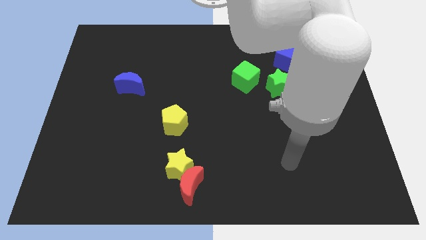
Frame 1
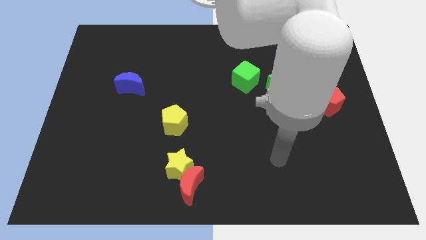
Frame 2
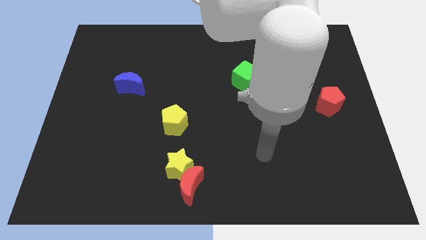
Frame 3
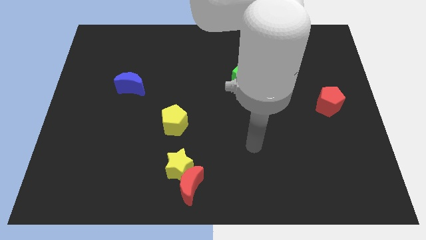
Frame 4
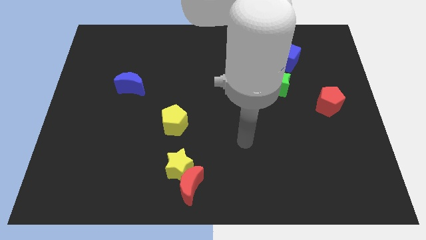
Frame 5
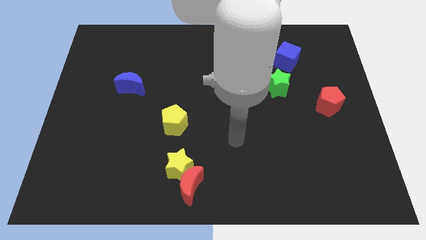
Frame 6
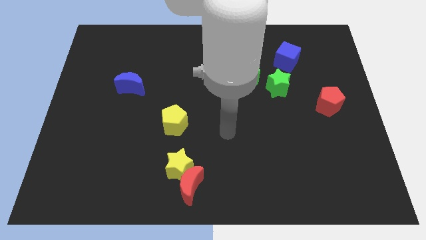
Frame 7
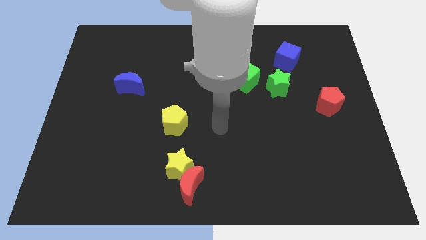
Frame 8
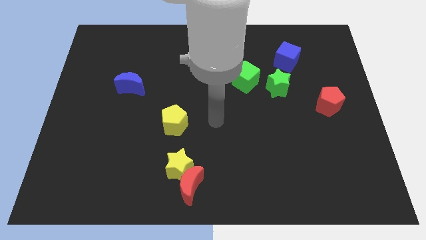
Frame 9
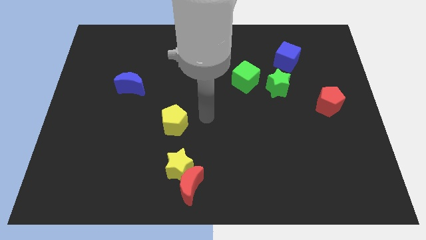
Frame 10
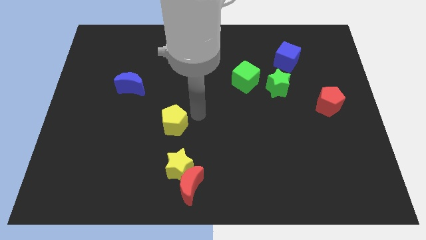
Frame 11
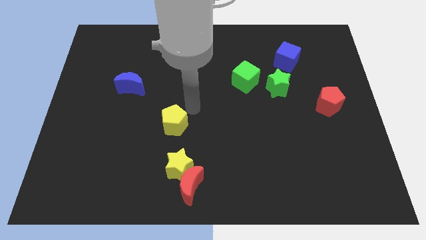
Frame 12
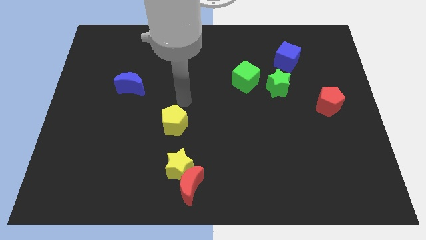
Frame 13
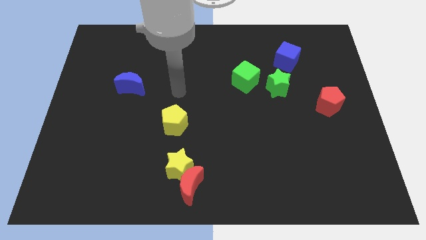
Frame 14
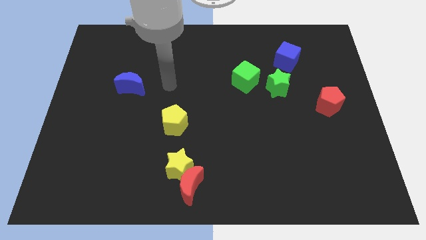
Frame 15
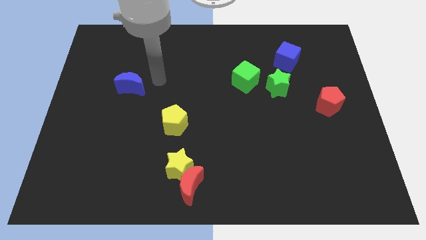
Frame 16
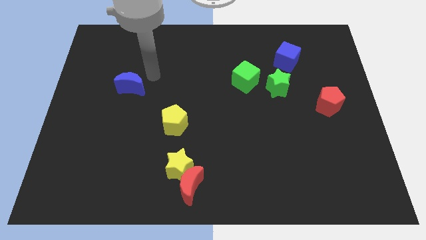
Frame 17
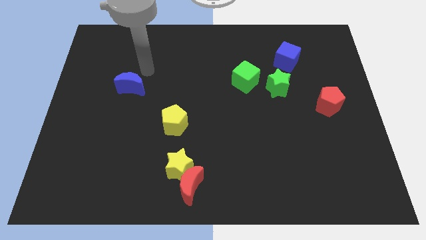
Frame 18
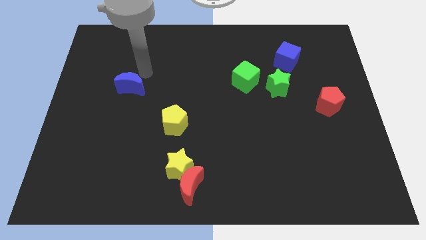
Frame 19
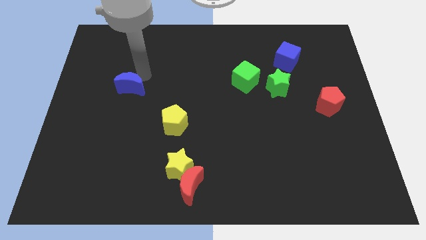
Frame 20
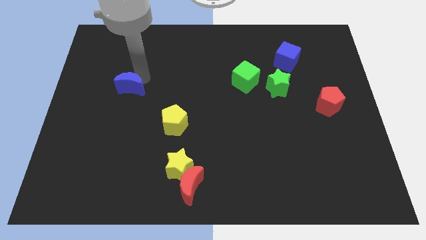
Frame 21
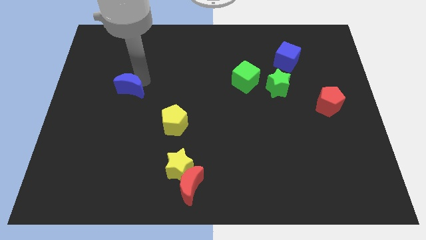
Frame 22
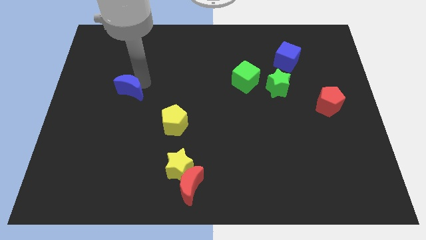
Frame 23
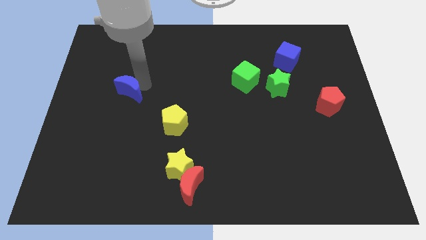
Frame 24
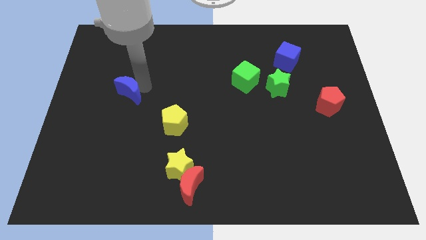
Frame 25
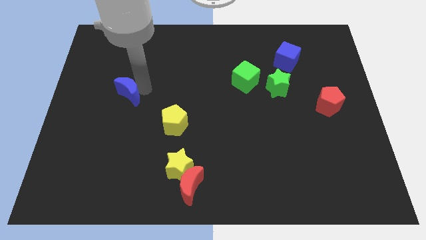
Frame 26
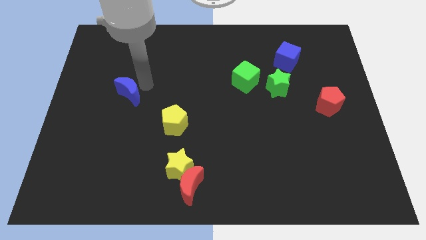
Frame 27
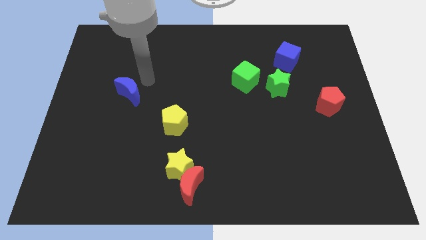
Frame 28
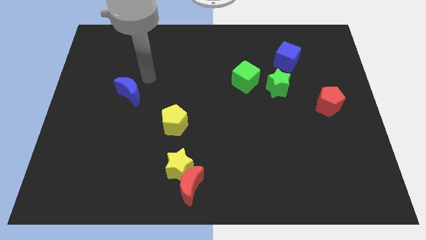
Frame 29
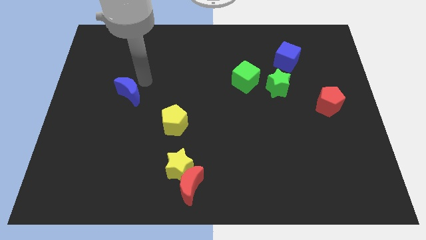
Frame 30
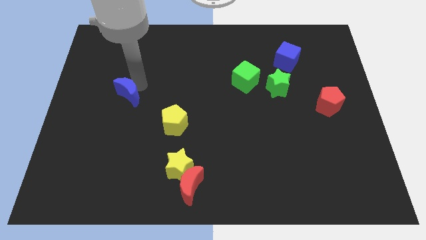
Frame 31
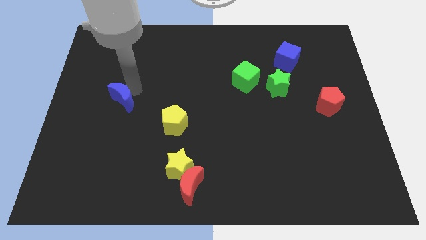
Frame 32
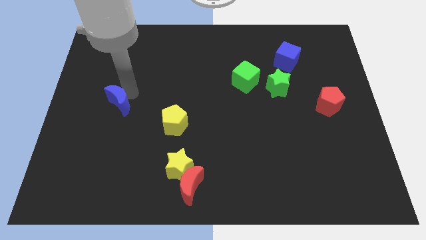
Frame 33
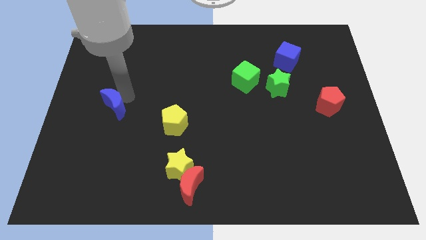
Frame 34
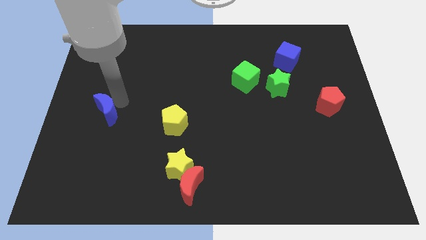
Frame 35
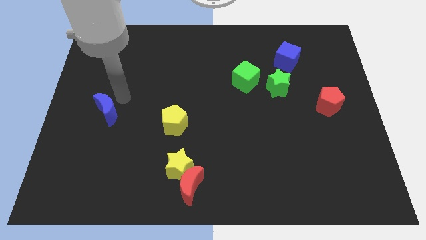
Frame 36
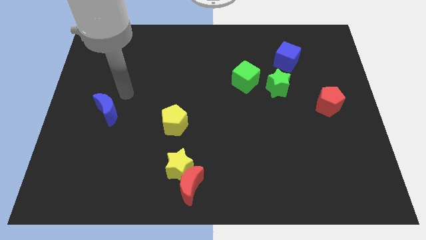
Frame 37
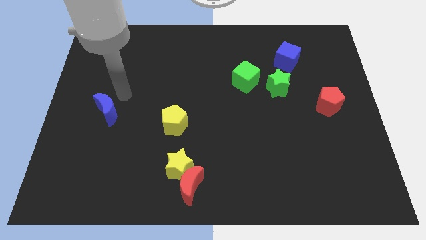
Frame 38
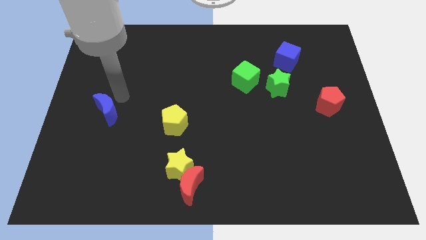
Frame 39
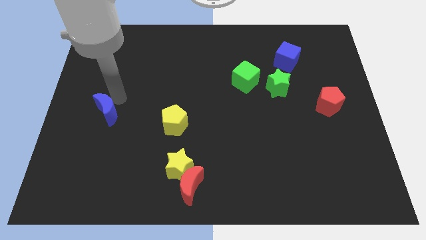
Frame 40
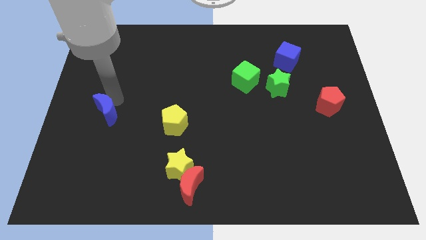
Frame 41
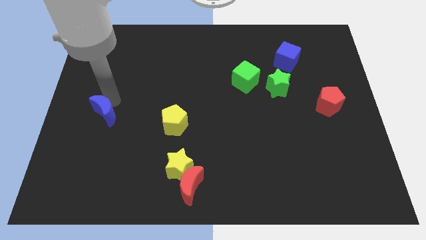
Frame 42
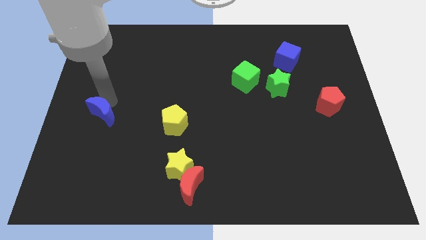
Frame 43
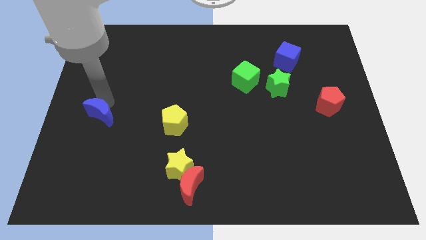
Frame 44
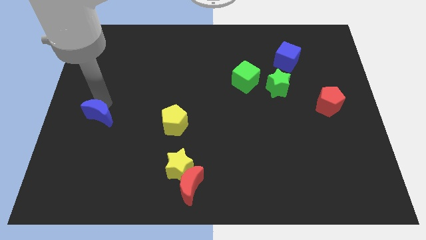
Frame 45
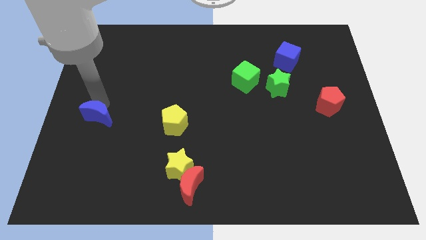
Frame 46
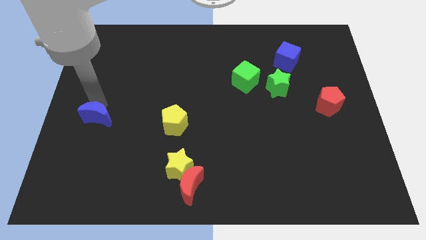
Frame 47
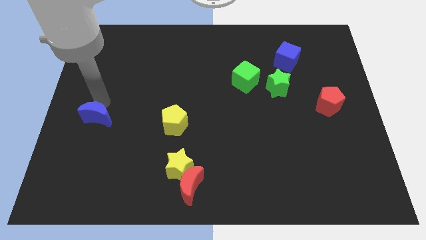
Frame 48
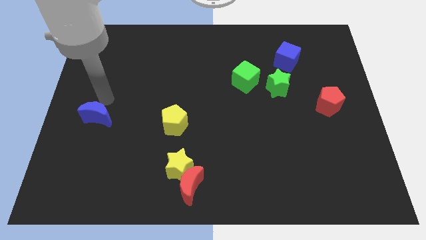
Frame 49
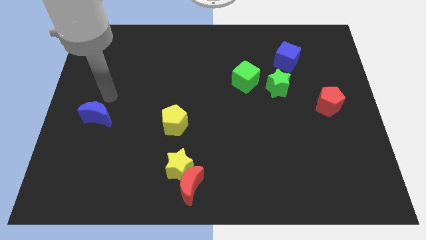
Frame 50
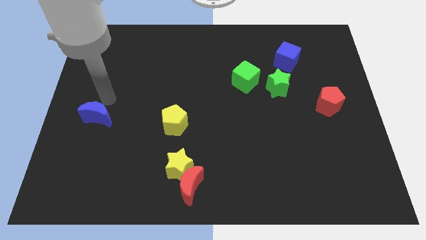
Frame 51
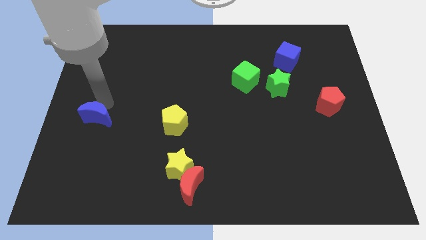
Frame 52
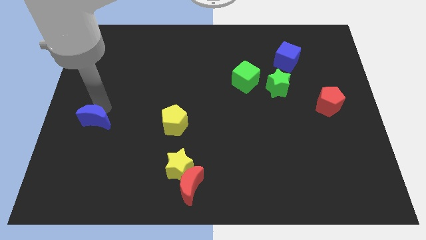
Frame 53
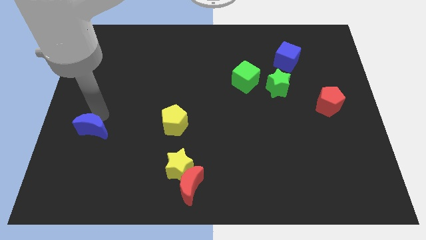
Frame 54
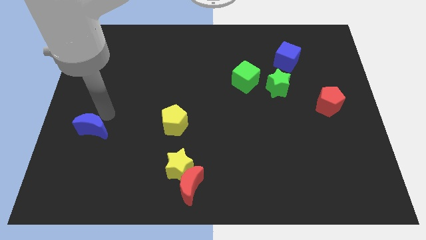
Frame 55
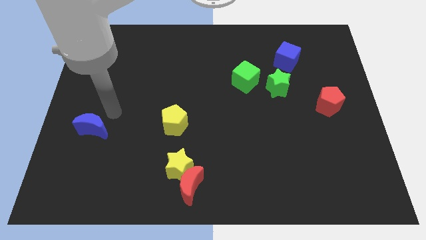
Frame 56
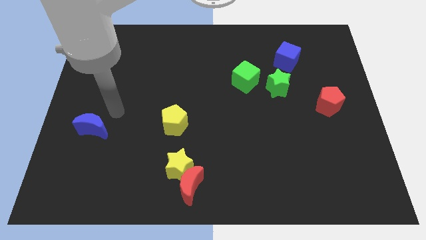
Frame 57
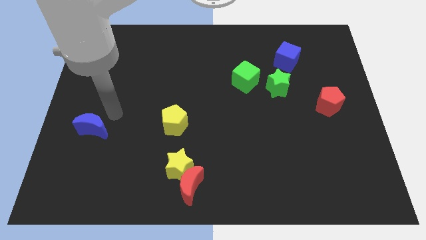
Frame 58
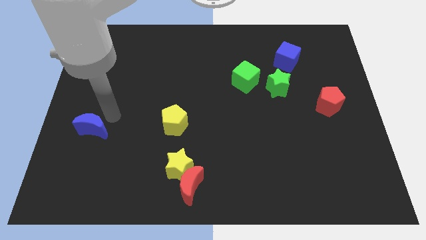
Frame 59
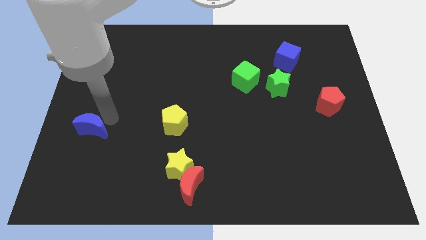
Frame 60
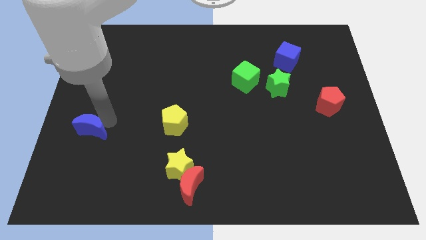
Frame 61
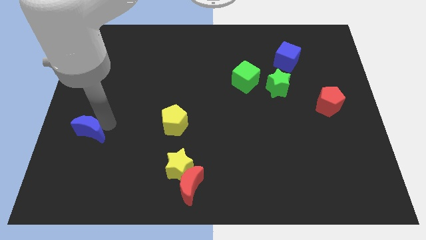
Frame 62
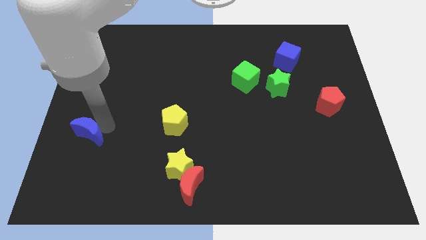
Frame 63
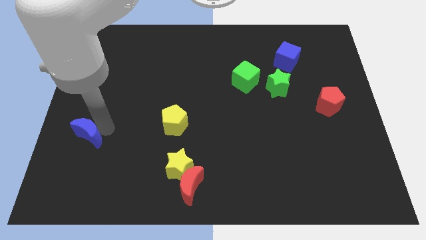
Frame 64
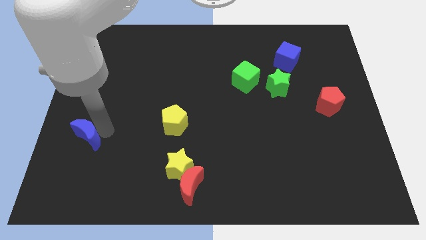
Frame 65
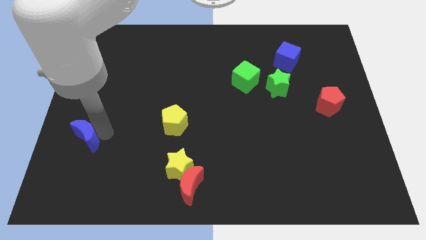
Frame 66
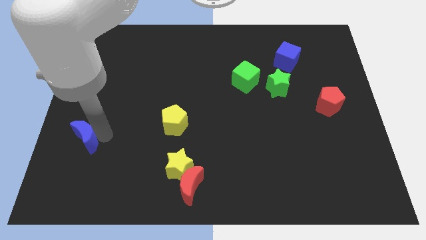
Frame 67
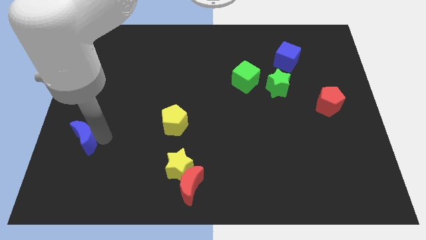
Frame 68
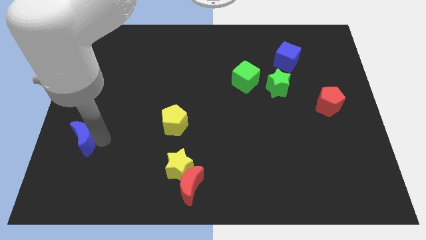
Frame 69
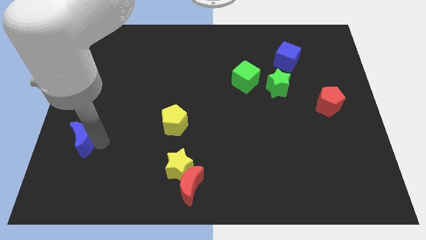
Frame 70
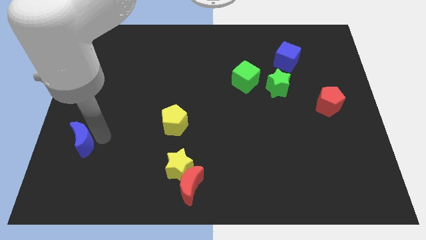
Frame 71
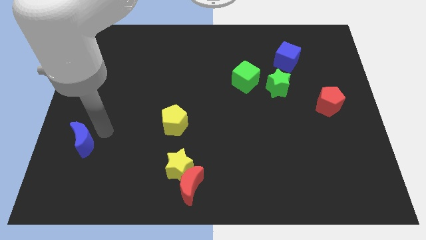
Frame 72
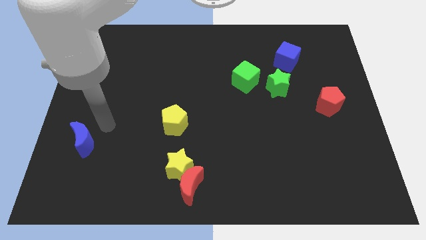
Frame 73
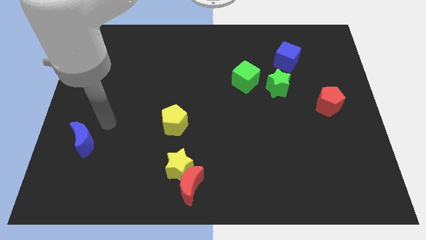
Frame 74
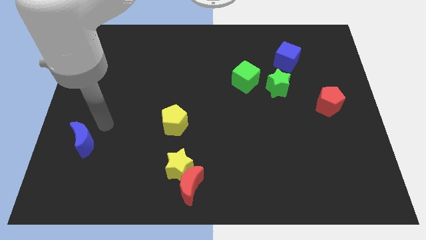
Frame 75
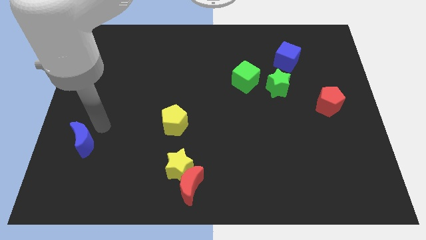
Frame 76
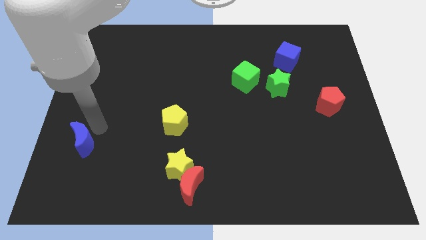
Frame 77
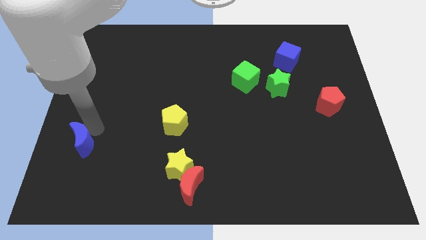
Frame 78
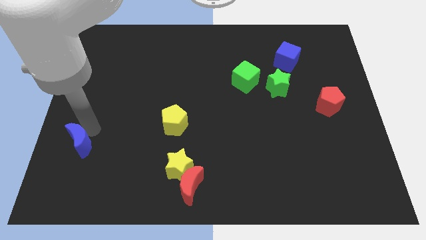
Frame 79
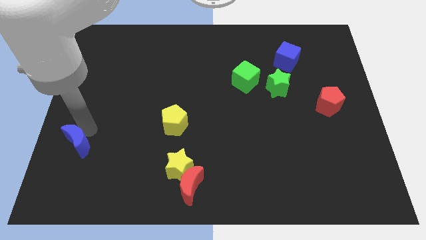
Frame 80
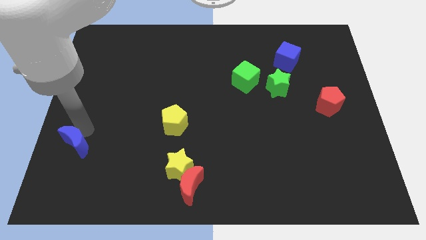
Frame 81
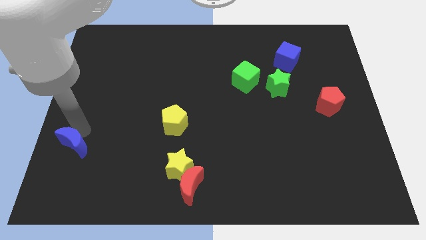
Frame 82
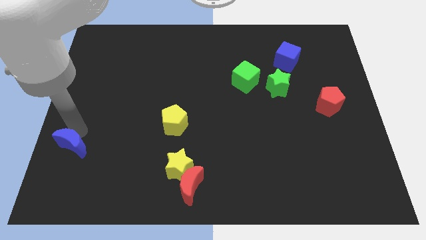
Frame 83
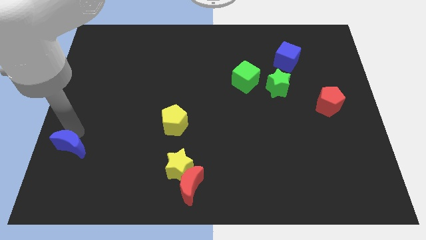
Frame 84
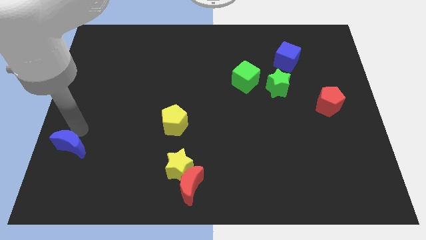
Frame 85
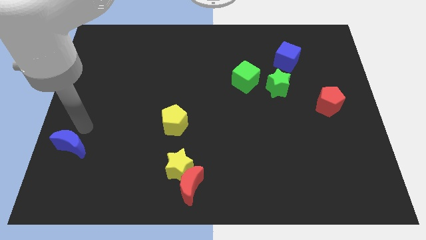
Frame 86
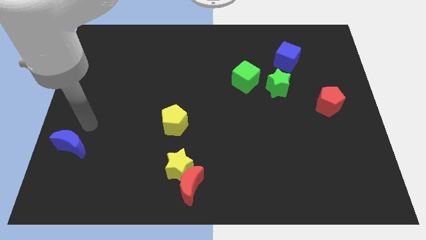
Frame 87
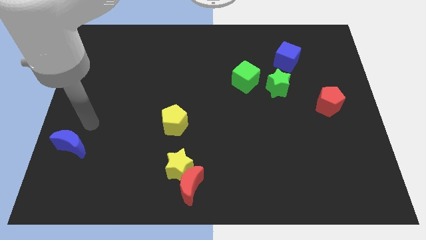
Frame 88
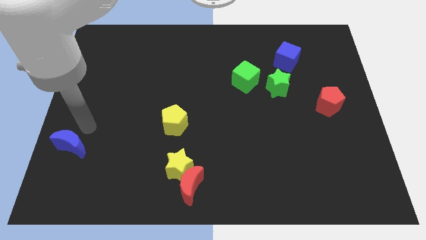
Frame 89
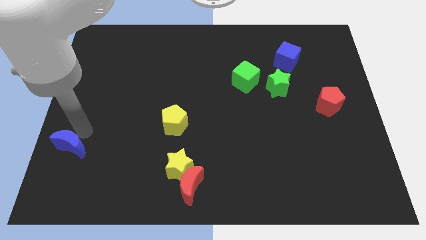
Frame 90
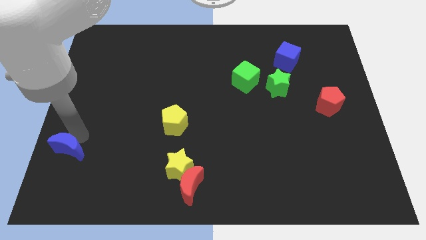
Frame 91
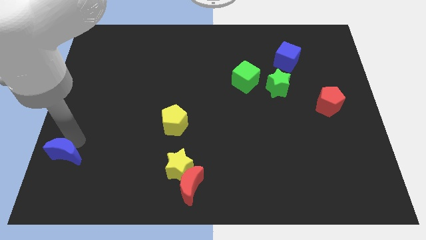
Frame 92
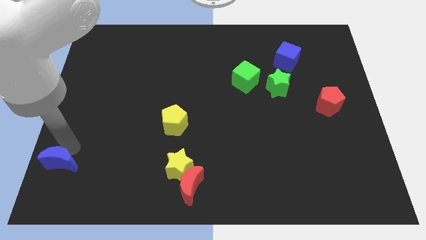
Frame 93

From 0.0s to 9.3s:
push the blue moon to the bottom left of the board
